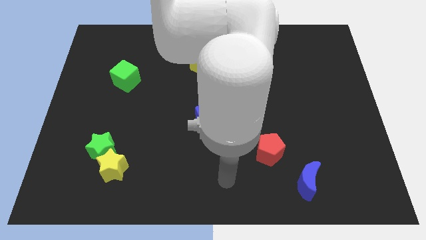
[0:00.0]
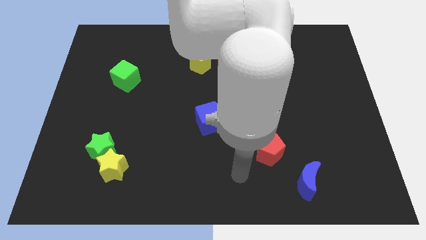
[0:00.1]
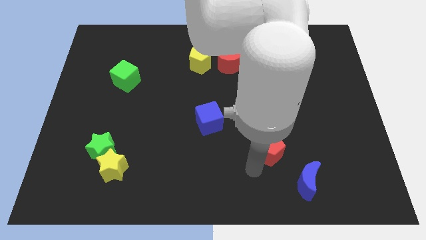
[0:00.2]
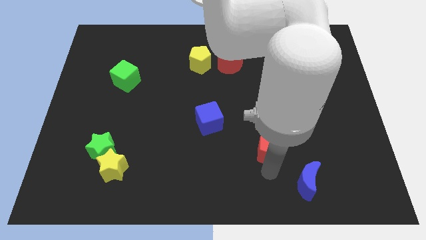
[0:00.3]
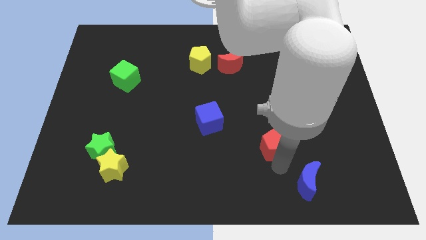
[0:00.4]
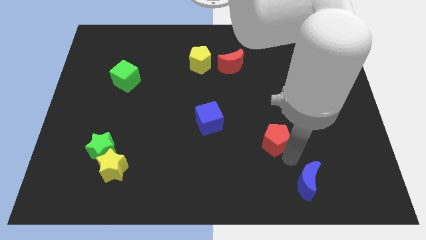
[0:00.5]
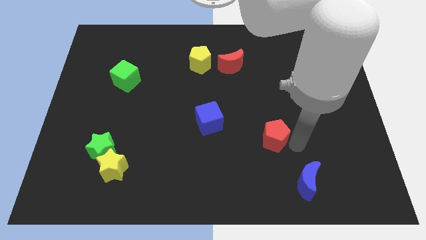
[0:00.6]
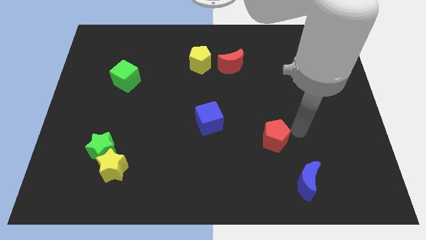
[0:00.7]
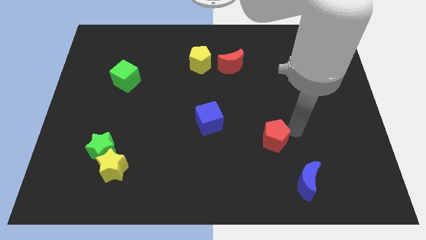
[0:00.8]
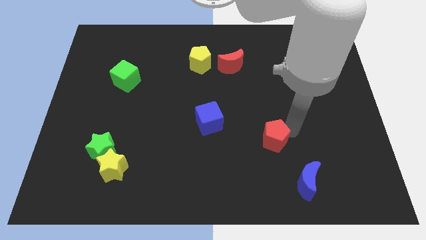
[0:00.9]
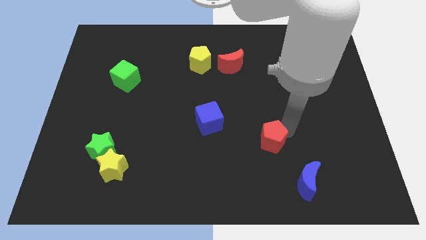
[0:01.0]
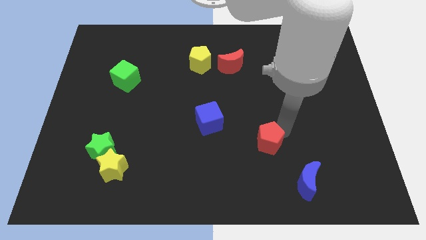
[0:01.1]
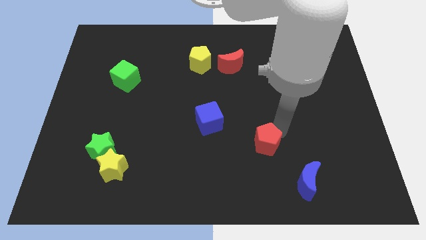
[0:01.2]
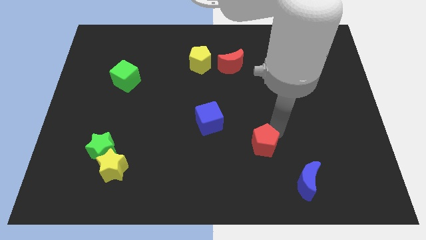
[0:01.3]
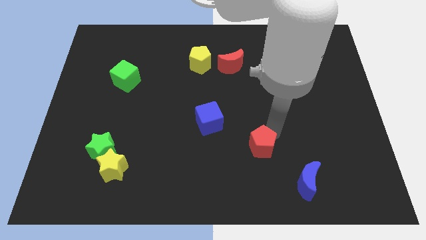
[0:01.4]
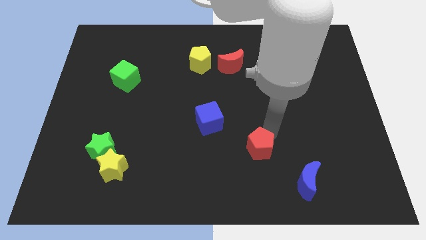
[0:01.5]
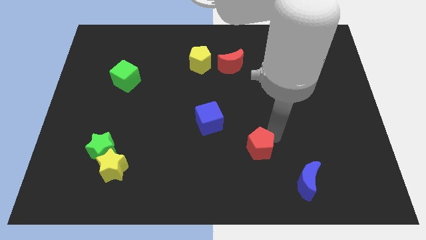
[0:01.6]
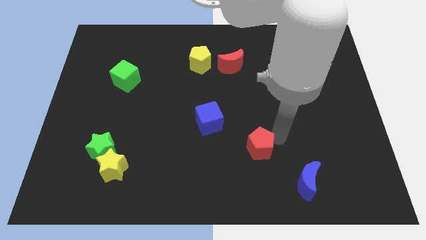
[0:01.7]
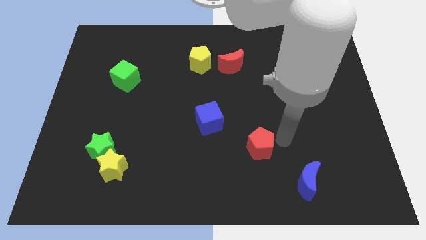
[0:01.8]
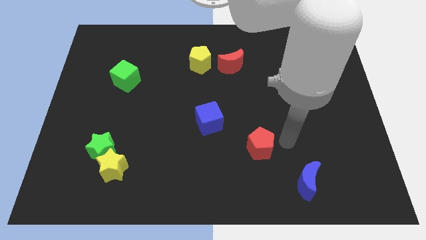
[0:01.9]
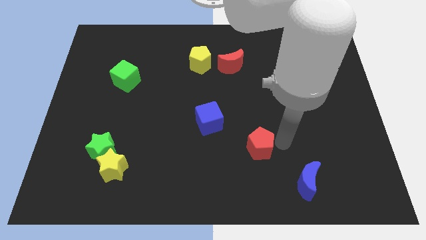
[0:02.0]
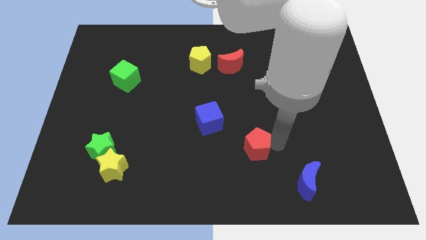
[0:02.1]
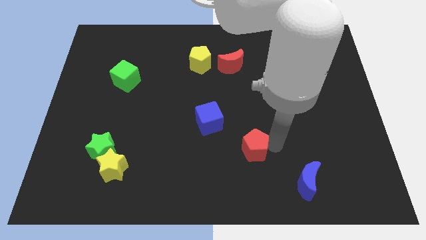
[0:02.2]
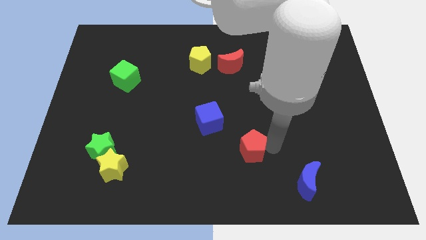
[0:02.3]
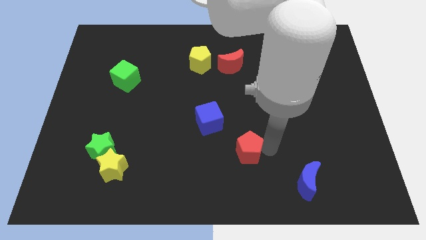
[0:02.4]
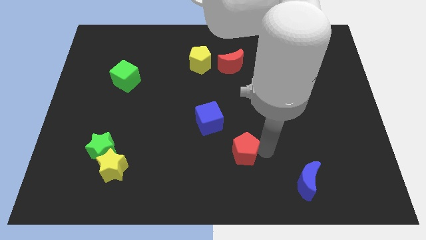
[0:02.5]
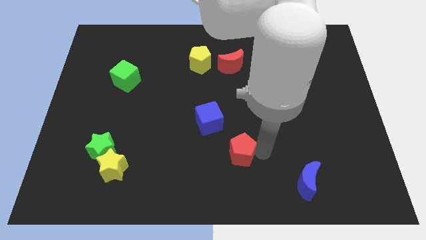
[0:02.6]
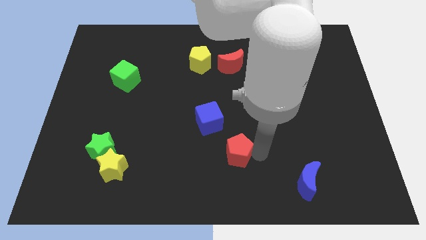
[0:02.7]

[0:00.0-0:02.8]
move the red pentagon to the left a bit

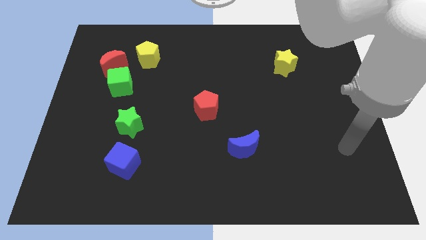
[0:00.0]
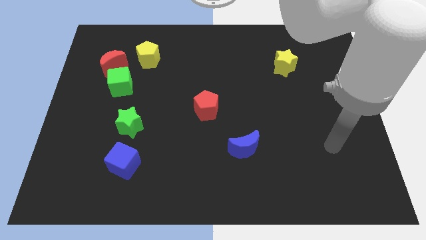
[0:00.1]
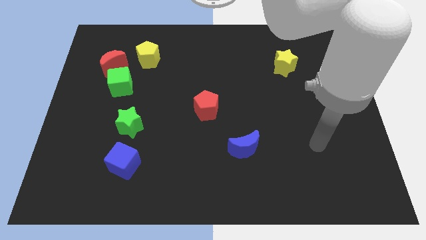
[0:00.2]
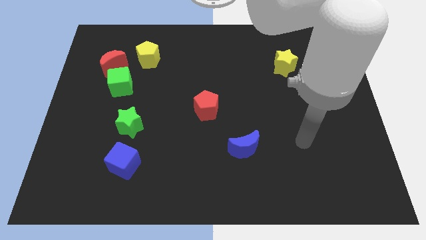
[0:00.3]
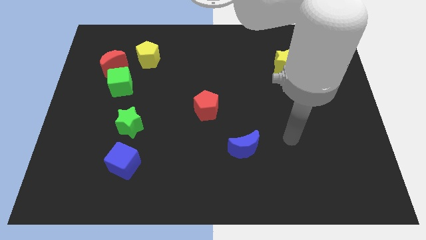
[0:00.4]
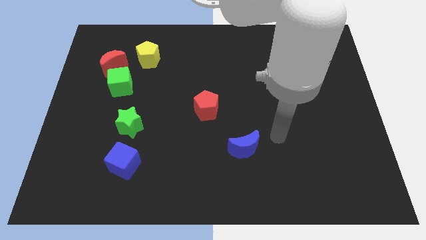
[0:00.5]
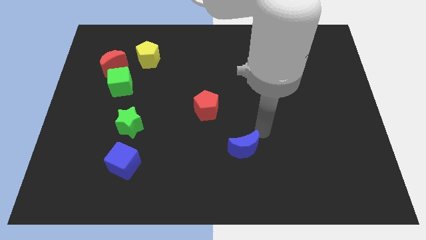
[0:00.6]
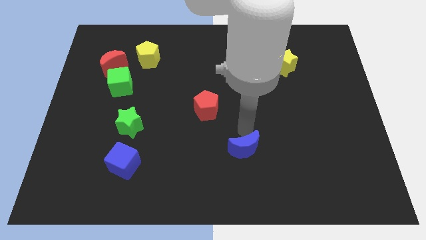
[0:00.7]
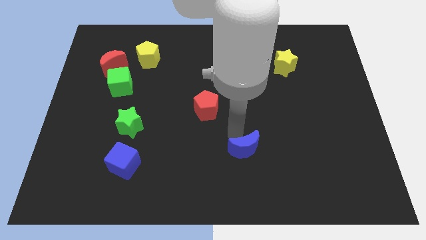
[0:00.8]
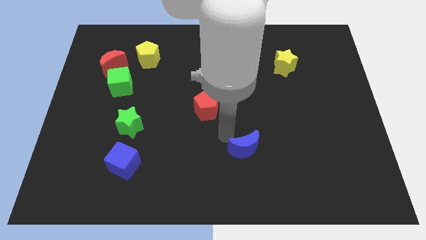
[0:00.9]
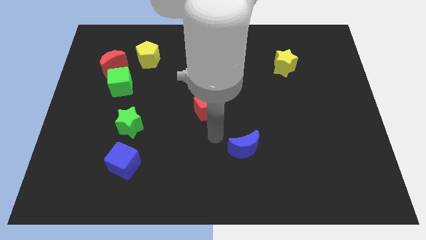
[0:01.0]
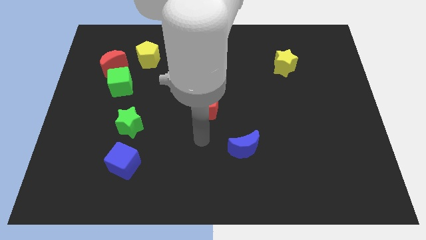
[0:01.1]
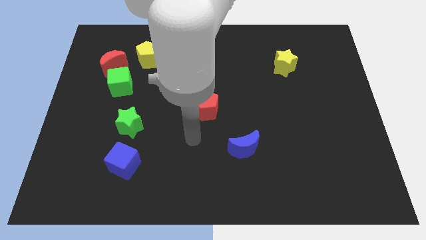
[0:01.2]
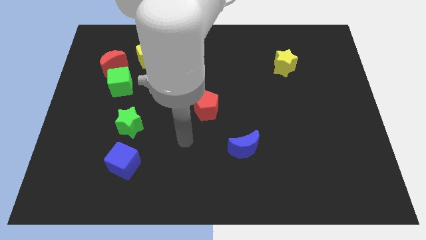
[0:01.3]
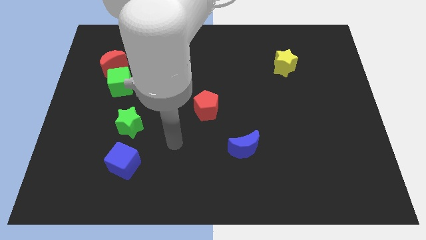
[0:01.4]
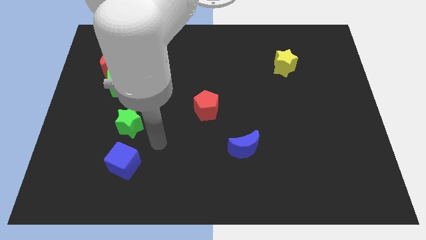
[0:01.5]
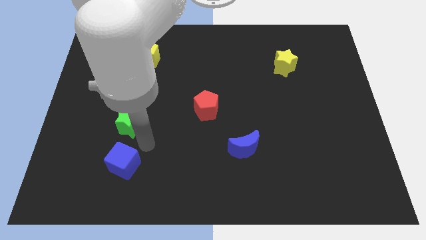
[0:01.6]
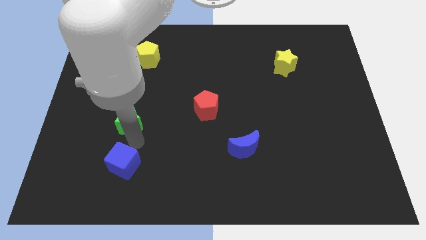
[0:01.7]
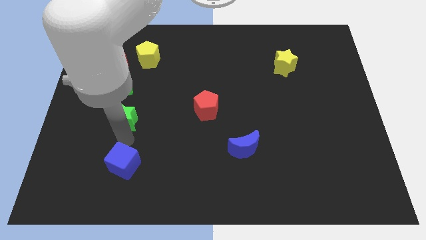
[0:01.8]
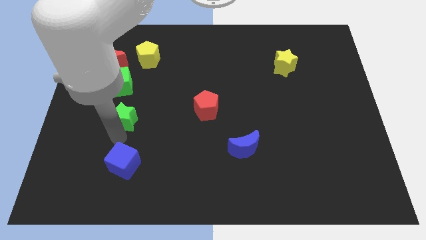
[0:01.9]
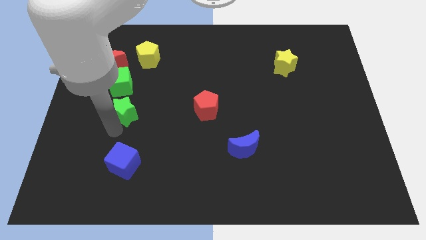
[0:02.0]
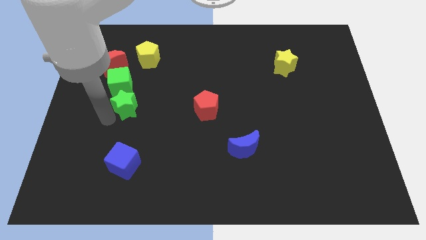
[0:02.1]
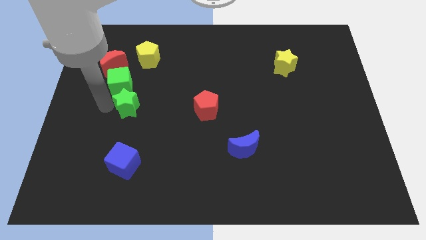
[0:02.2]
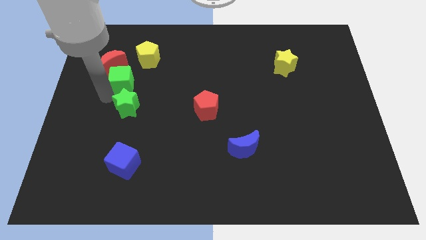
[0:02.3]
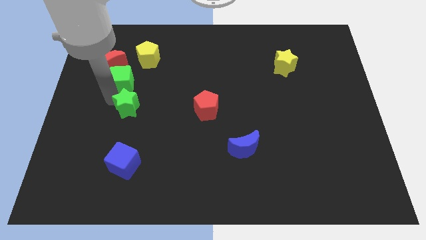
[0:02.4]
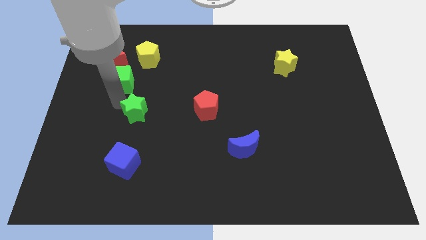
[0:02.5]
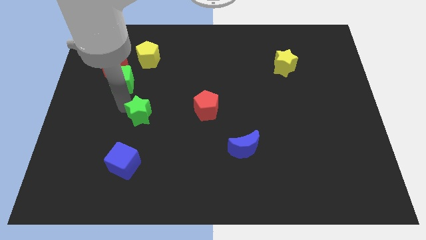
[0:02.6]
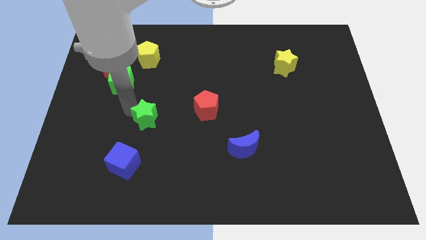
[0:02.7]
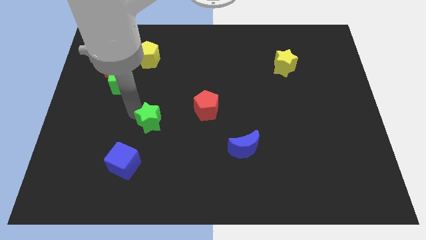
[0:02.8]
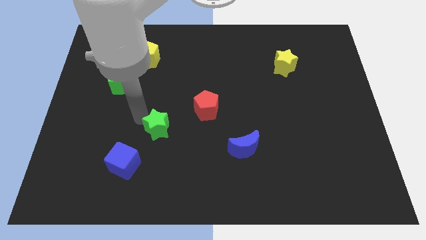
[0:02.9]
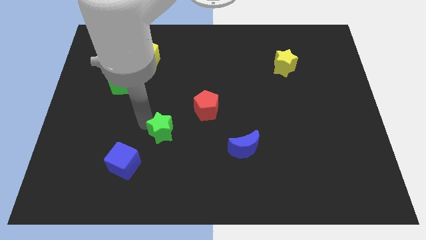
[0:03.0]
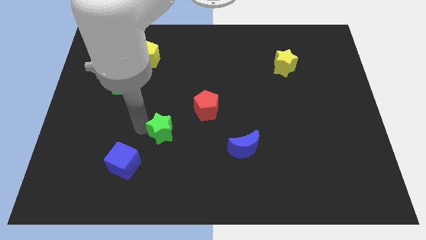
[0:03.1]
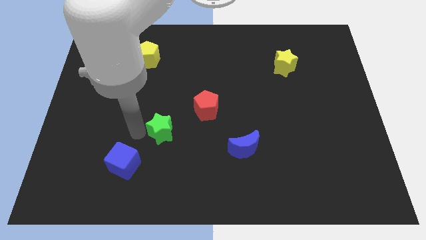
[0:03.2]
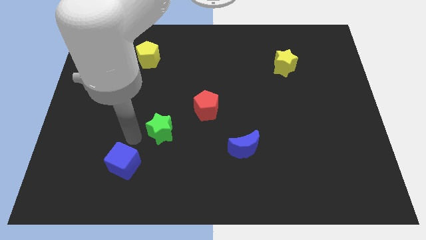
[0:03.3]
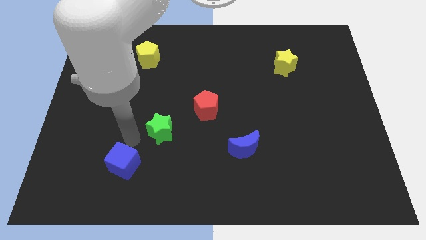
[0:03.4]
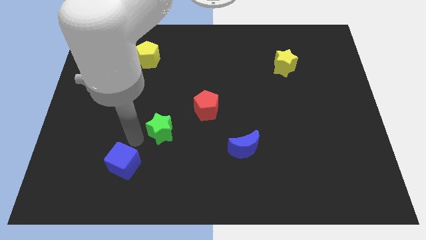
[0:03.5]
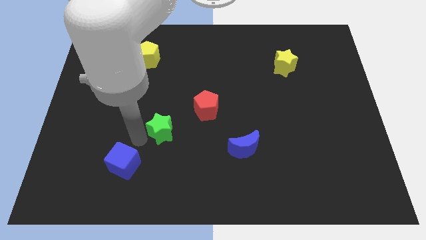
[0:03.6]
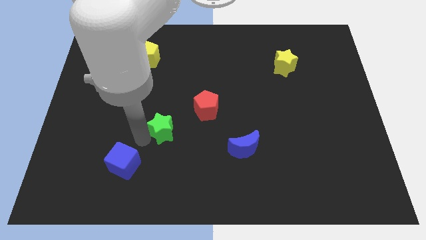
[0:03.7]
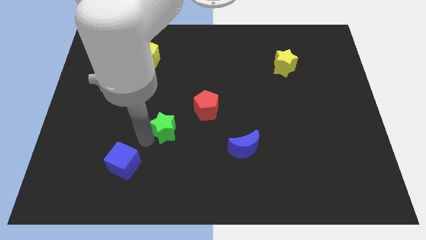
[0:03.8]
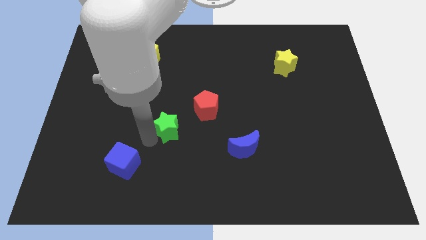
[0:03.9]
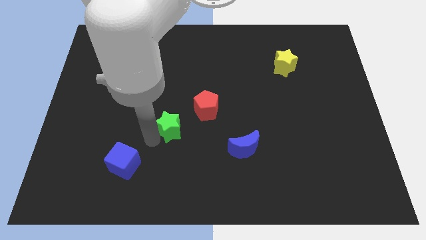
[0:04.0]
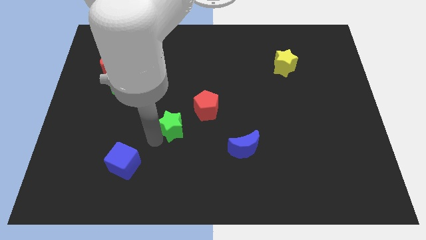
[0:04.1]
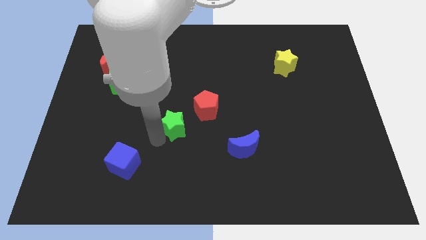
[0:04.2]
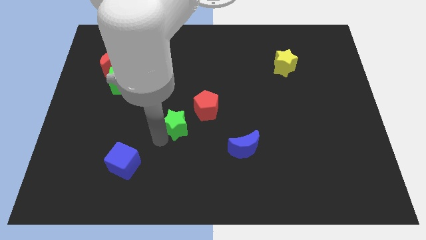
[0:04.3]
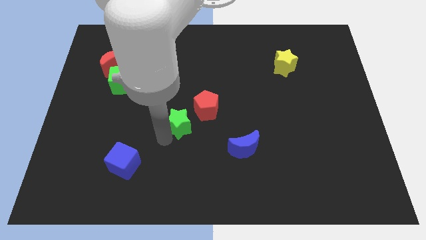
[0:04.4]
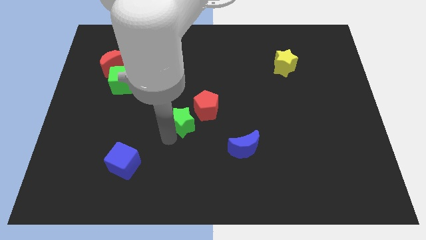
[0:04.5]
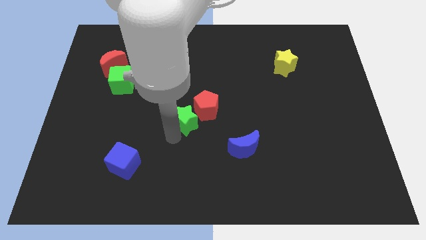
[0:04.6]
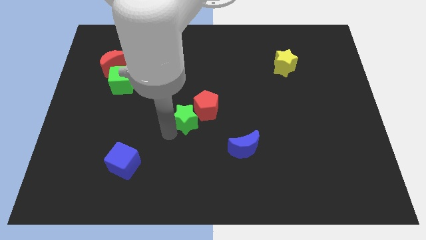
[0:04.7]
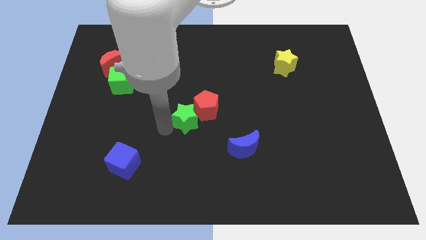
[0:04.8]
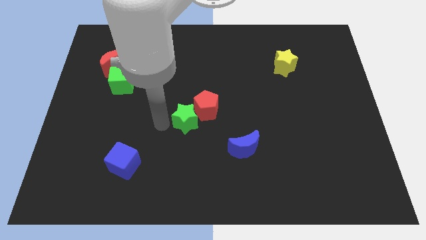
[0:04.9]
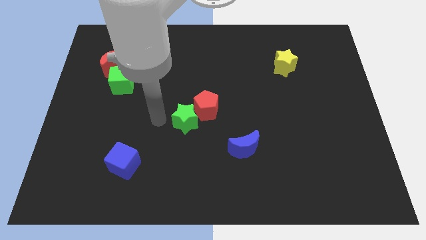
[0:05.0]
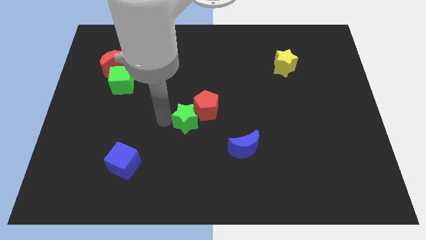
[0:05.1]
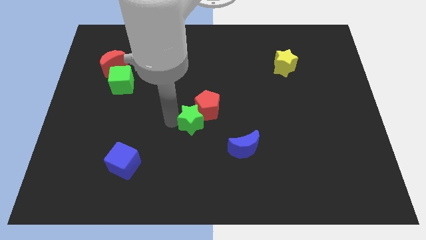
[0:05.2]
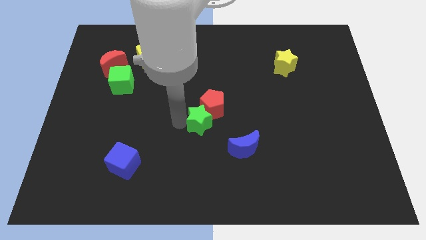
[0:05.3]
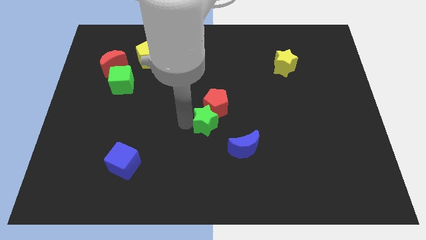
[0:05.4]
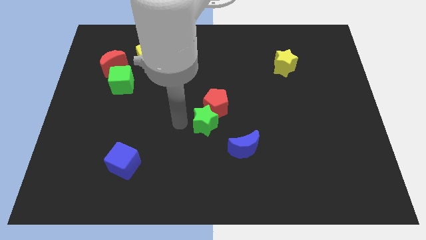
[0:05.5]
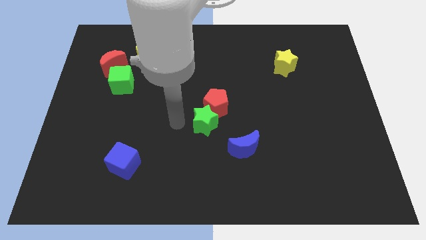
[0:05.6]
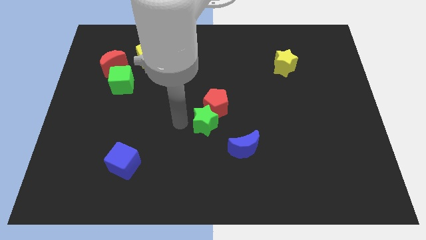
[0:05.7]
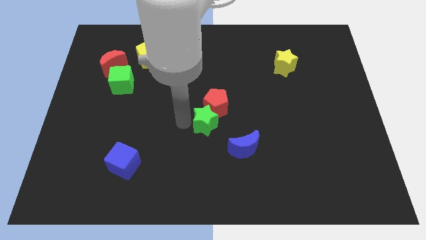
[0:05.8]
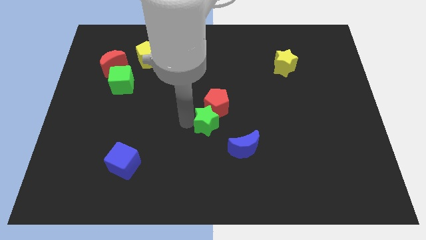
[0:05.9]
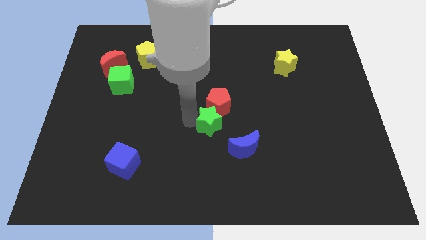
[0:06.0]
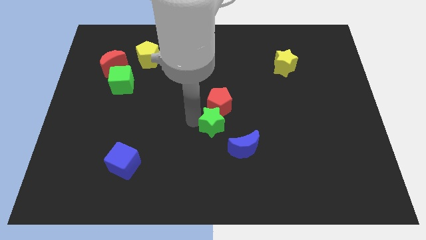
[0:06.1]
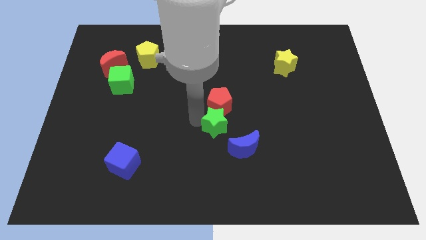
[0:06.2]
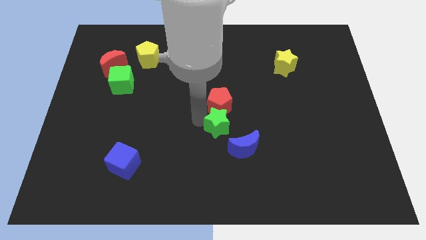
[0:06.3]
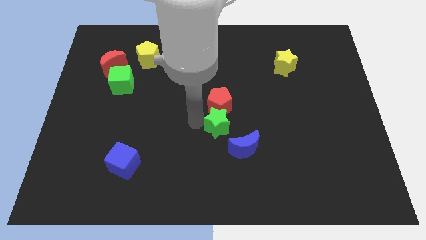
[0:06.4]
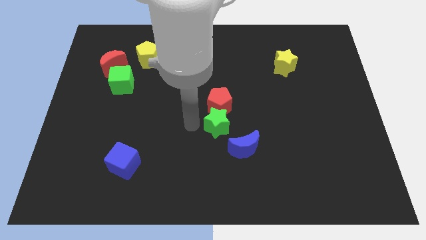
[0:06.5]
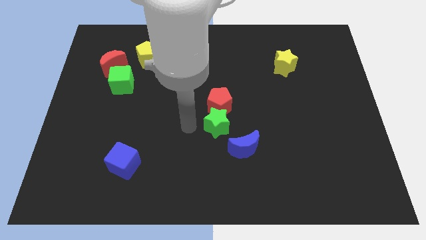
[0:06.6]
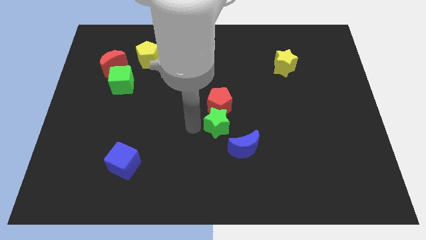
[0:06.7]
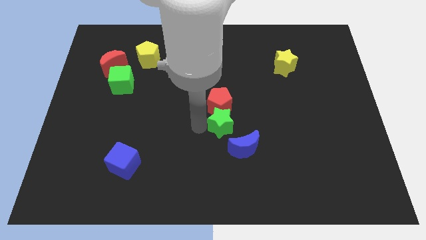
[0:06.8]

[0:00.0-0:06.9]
slide the green star to the right
